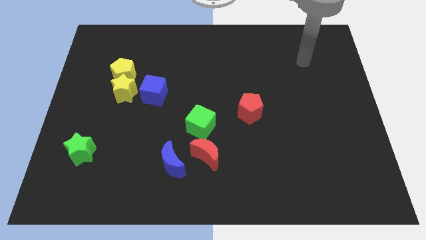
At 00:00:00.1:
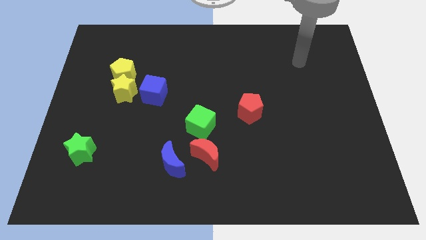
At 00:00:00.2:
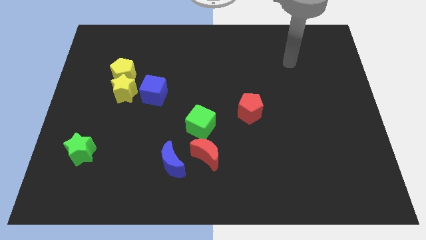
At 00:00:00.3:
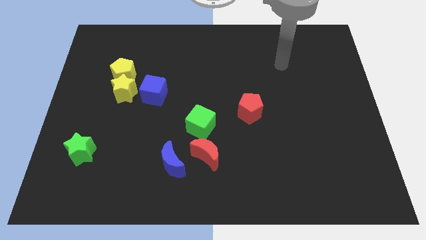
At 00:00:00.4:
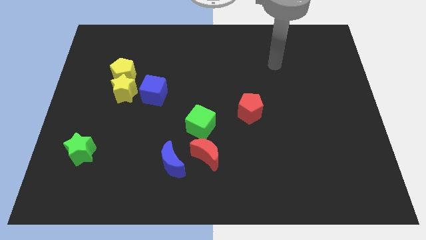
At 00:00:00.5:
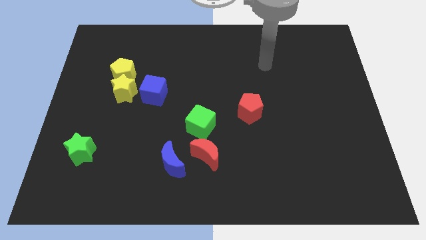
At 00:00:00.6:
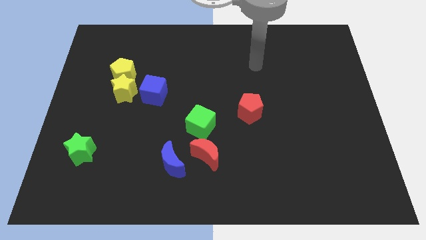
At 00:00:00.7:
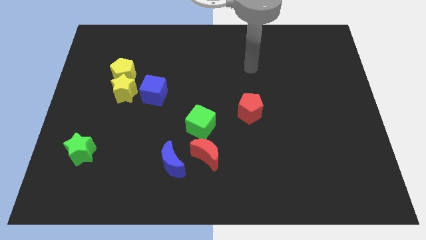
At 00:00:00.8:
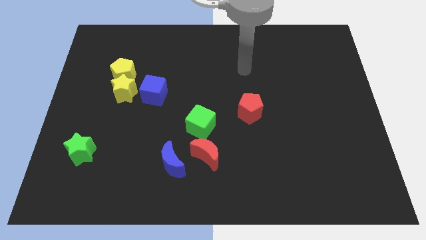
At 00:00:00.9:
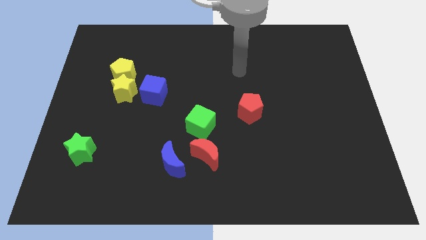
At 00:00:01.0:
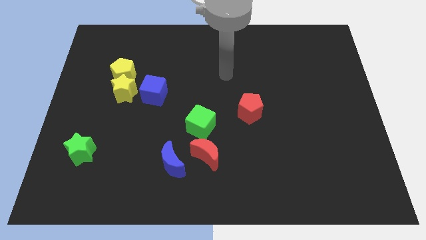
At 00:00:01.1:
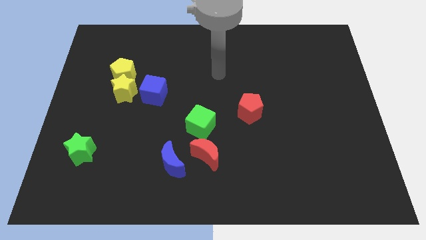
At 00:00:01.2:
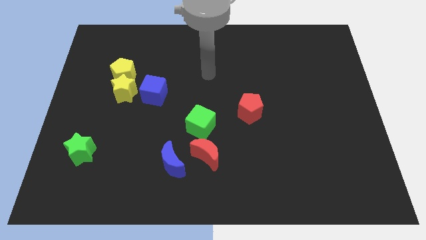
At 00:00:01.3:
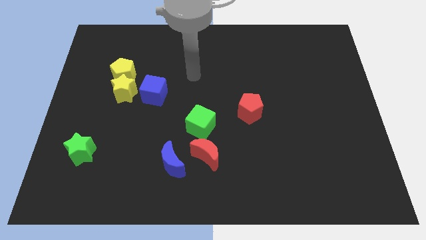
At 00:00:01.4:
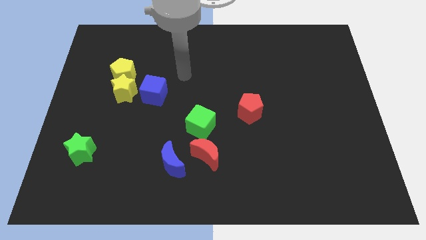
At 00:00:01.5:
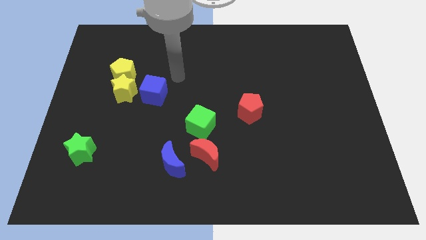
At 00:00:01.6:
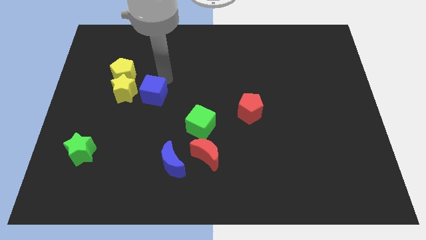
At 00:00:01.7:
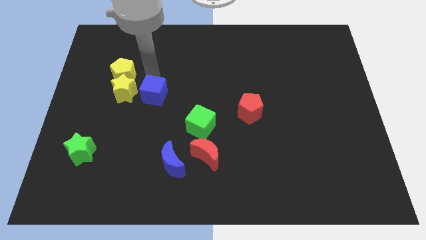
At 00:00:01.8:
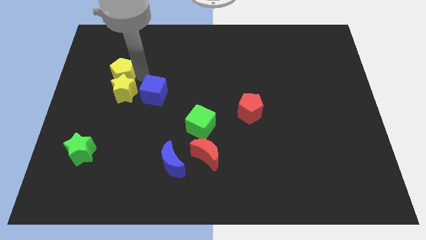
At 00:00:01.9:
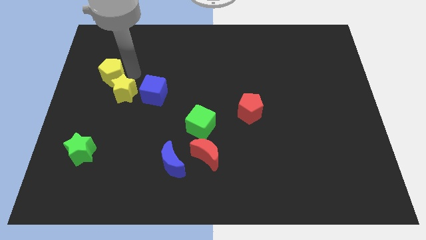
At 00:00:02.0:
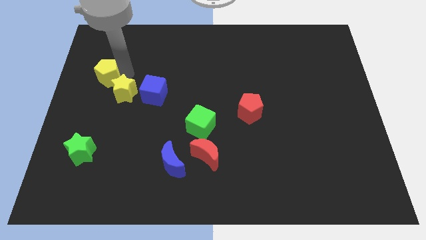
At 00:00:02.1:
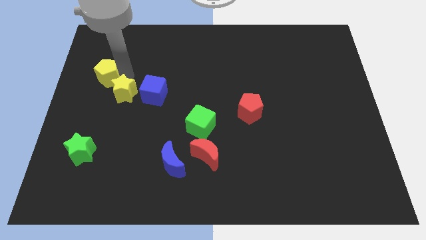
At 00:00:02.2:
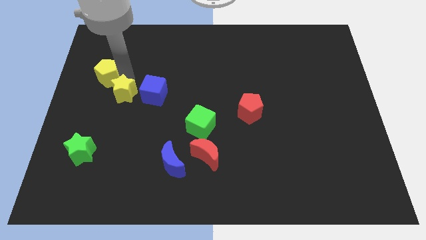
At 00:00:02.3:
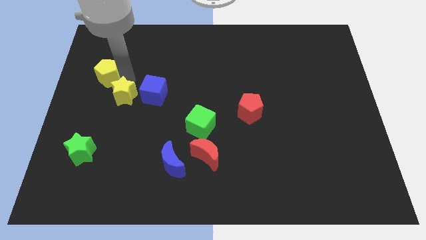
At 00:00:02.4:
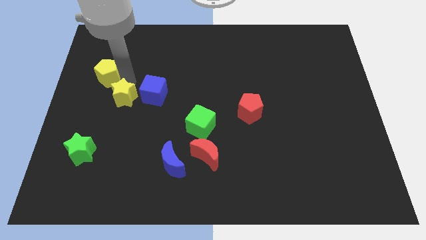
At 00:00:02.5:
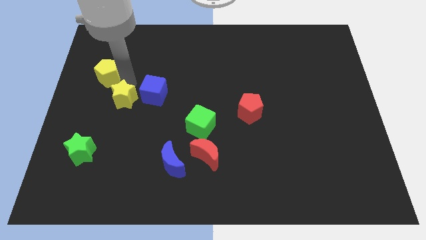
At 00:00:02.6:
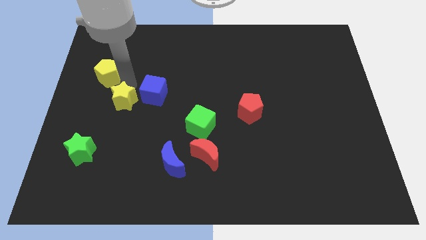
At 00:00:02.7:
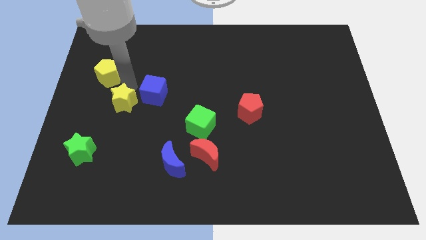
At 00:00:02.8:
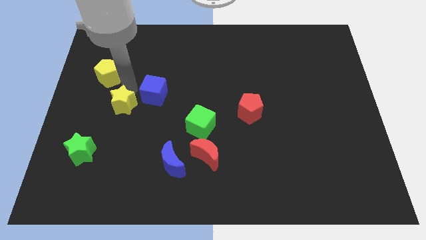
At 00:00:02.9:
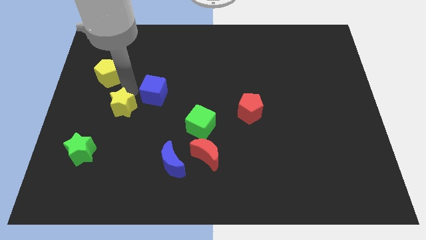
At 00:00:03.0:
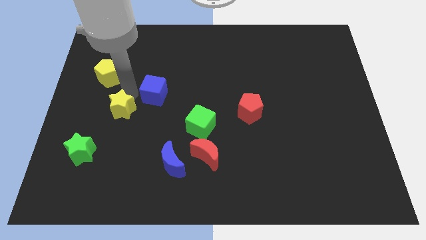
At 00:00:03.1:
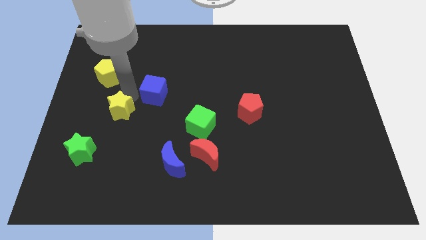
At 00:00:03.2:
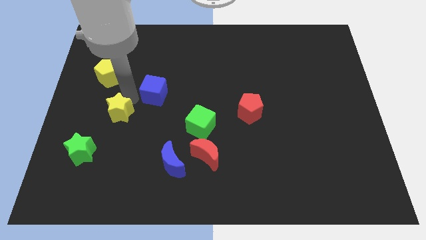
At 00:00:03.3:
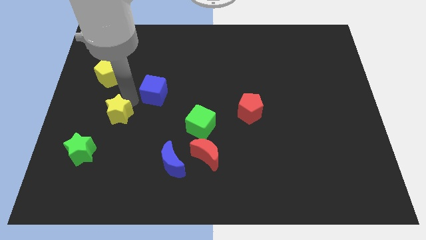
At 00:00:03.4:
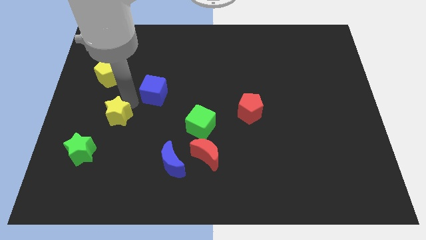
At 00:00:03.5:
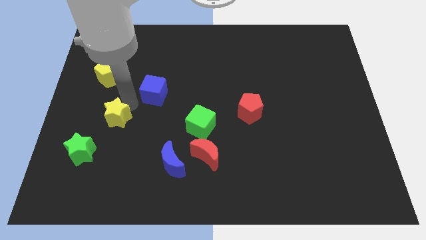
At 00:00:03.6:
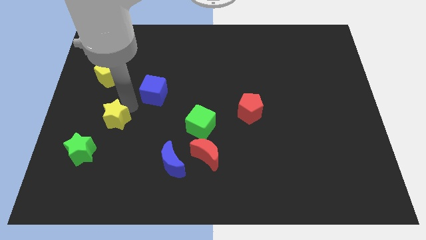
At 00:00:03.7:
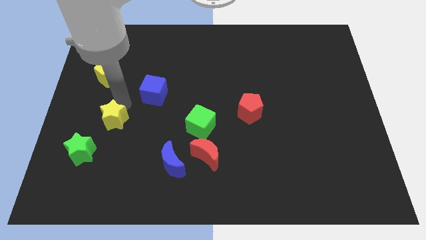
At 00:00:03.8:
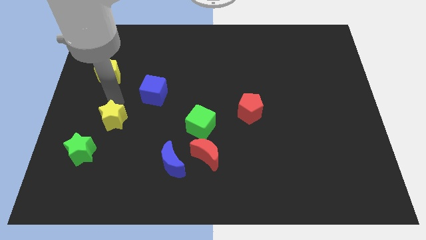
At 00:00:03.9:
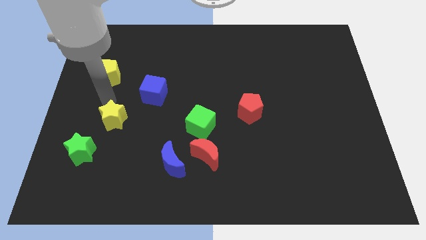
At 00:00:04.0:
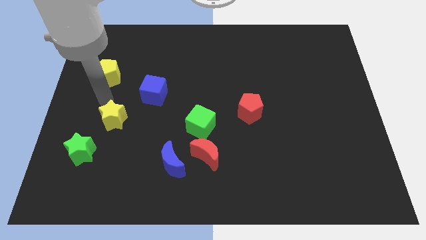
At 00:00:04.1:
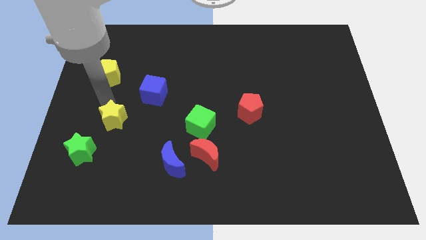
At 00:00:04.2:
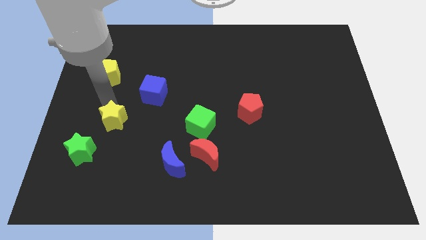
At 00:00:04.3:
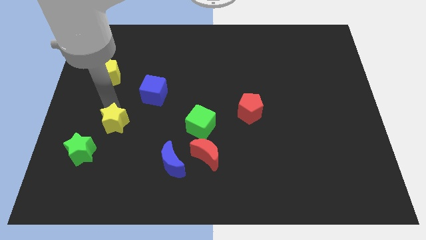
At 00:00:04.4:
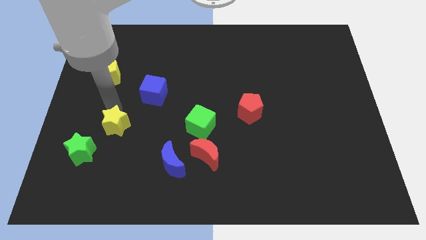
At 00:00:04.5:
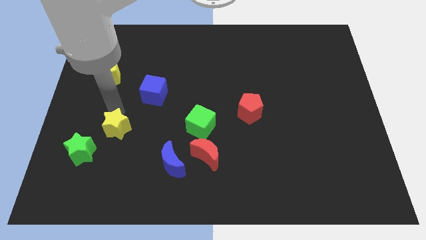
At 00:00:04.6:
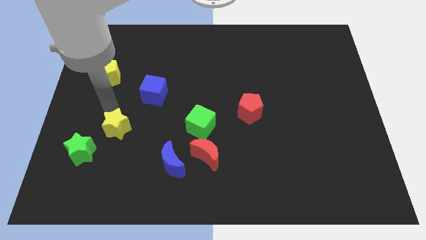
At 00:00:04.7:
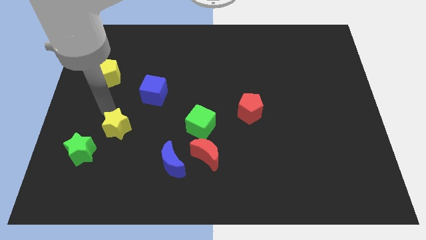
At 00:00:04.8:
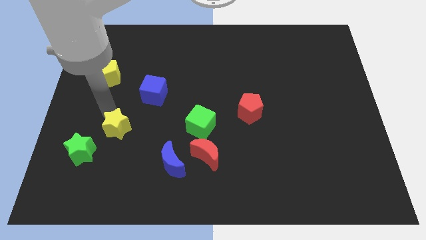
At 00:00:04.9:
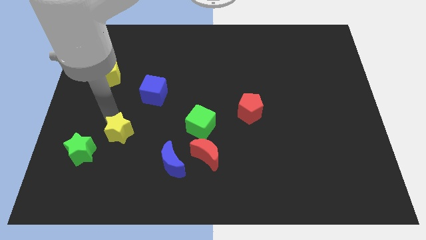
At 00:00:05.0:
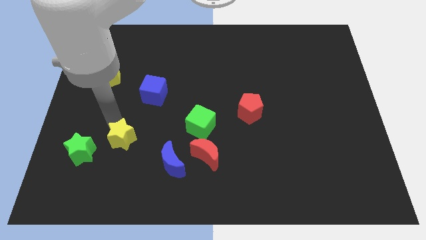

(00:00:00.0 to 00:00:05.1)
move the yellow star to the right side of the green star

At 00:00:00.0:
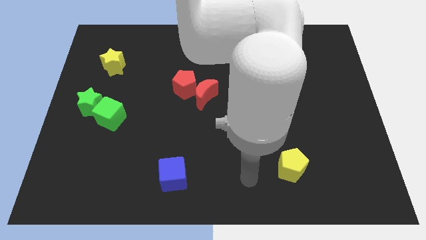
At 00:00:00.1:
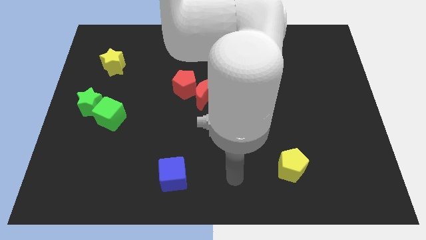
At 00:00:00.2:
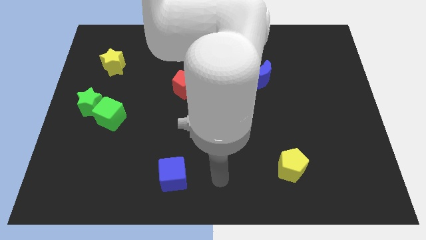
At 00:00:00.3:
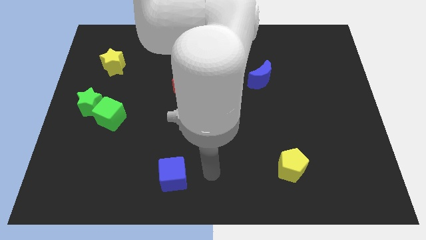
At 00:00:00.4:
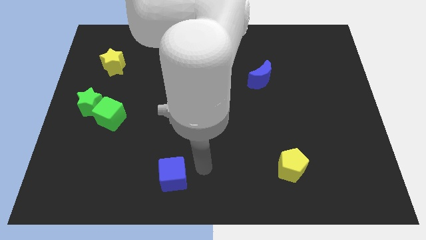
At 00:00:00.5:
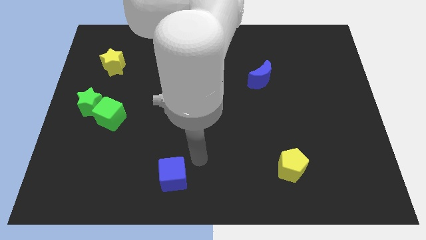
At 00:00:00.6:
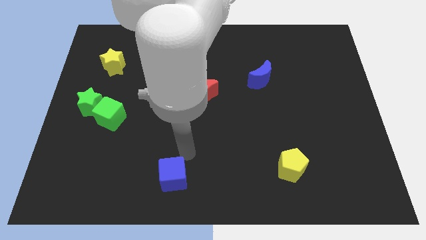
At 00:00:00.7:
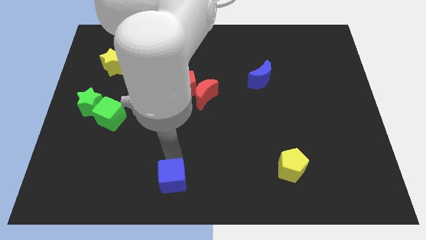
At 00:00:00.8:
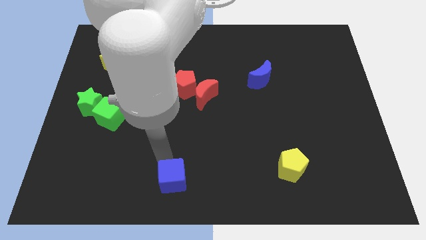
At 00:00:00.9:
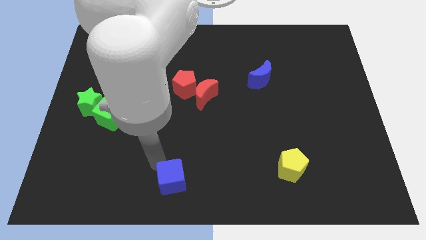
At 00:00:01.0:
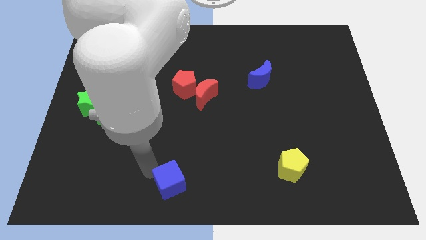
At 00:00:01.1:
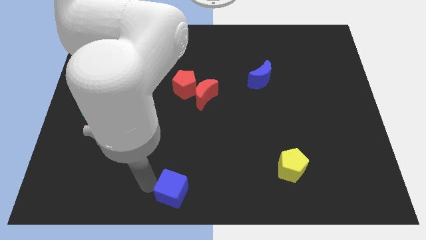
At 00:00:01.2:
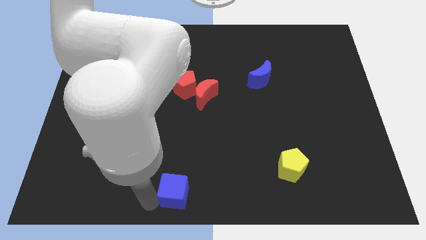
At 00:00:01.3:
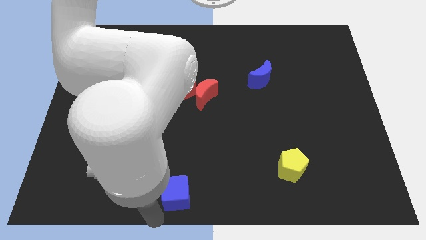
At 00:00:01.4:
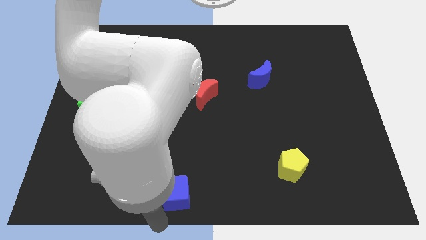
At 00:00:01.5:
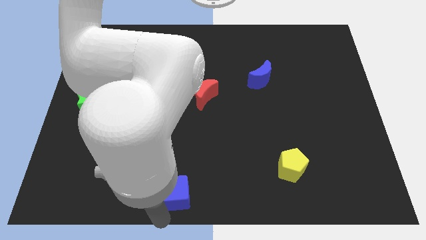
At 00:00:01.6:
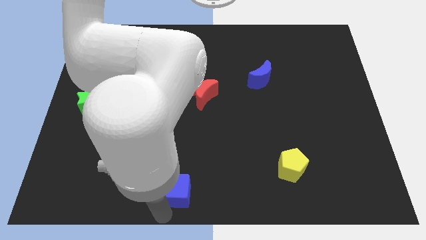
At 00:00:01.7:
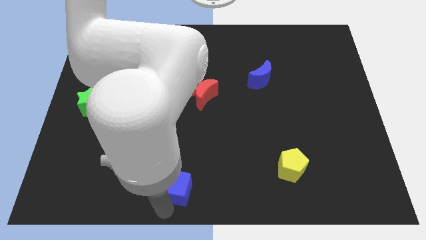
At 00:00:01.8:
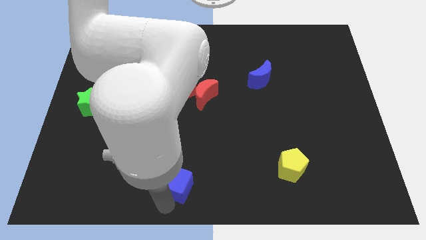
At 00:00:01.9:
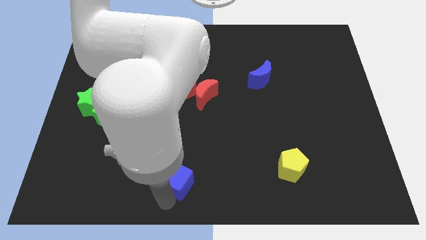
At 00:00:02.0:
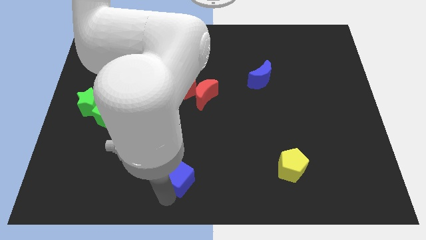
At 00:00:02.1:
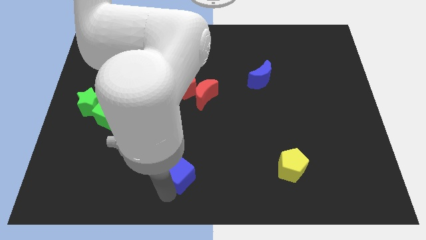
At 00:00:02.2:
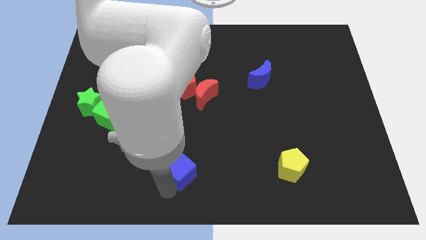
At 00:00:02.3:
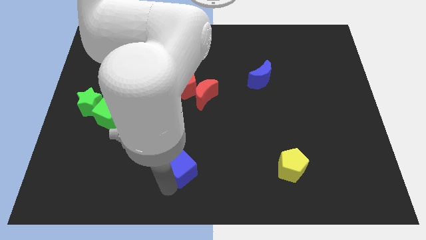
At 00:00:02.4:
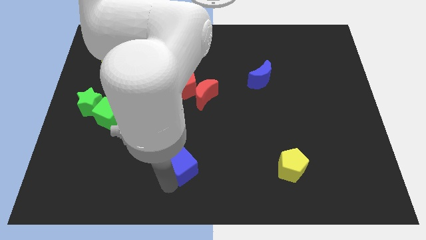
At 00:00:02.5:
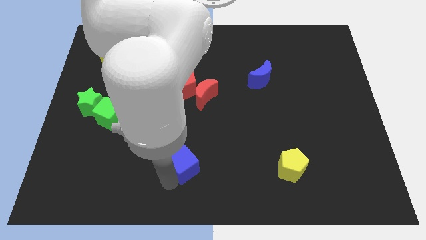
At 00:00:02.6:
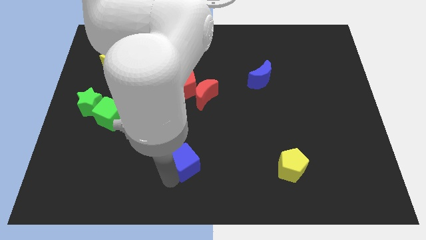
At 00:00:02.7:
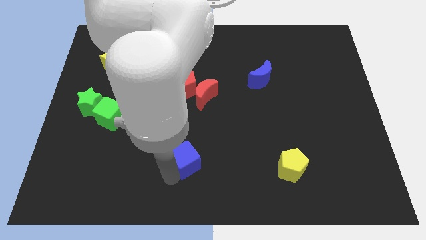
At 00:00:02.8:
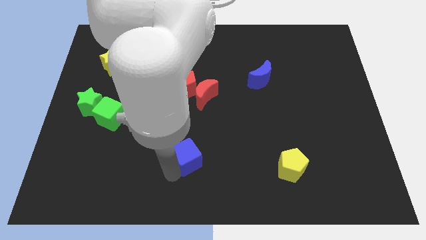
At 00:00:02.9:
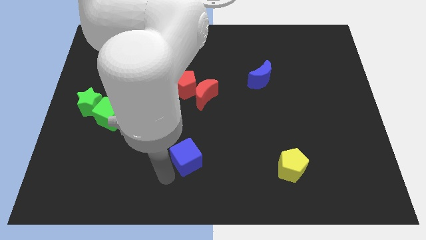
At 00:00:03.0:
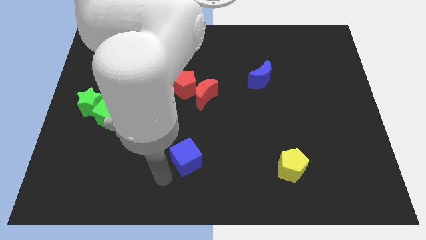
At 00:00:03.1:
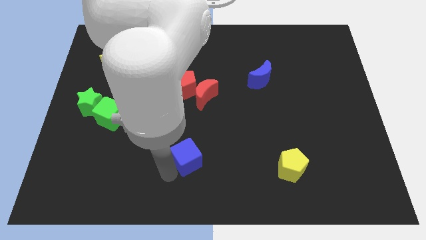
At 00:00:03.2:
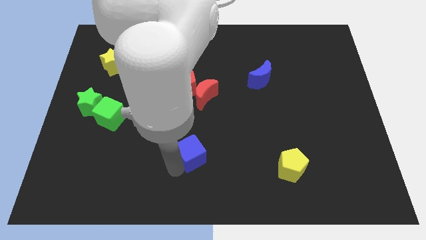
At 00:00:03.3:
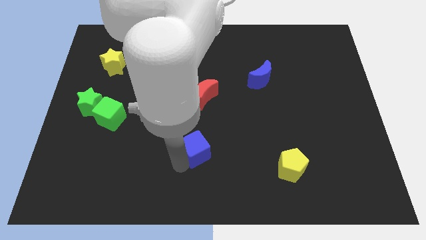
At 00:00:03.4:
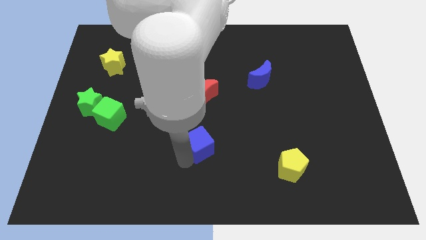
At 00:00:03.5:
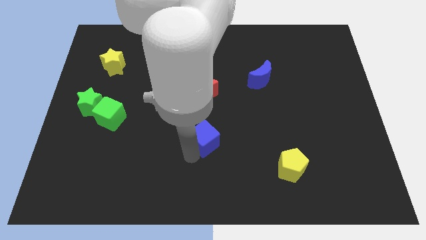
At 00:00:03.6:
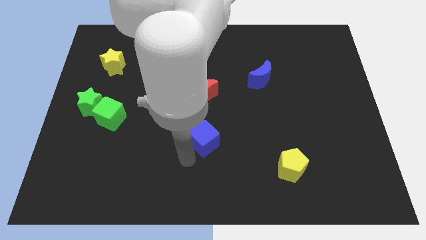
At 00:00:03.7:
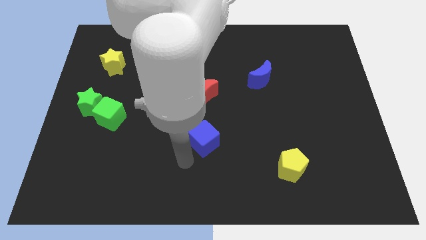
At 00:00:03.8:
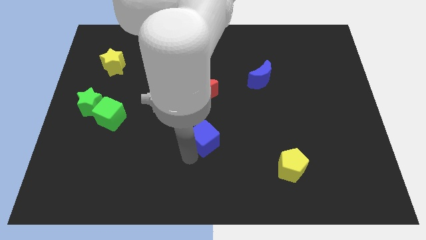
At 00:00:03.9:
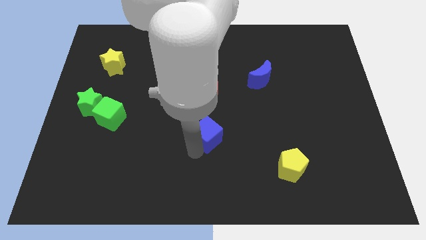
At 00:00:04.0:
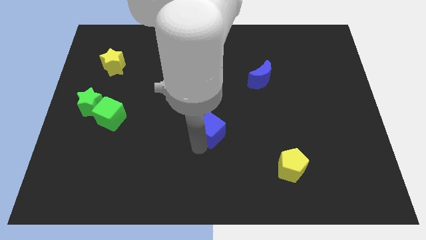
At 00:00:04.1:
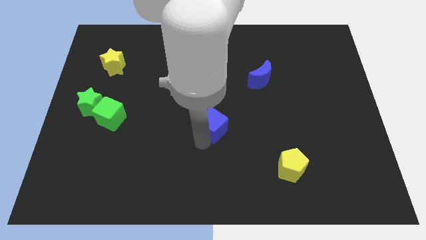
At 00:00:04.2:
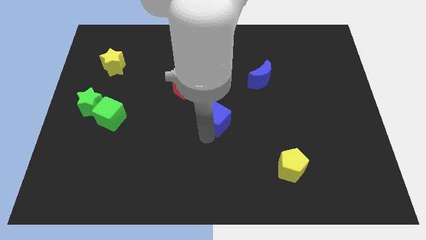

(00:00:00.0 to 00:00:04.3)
slide the blue cube to the bottom right of the red moon
